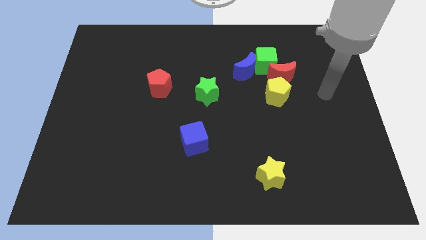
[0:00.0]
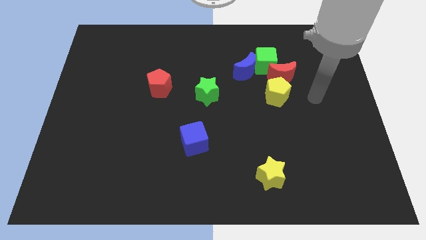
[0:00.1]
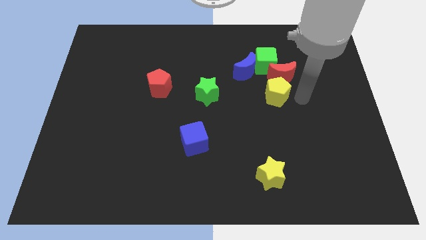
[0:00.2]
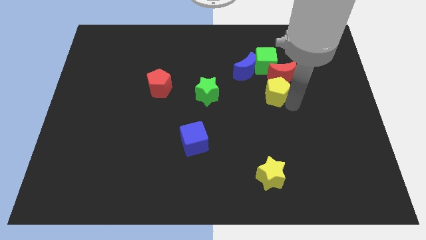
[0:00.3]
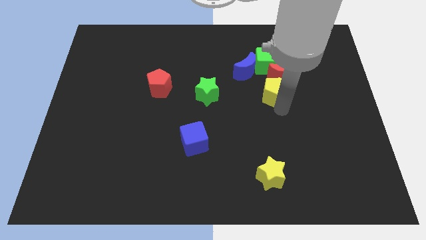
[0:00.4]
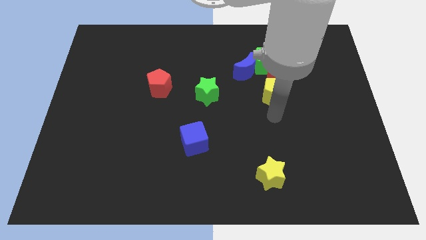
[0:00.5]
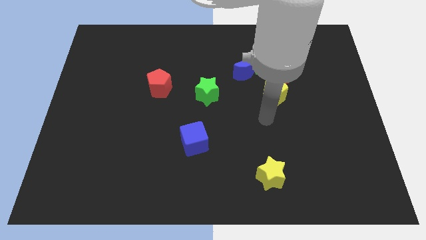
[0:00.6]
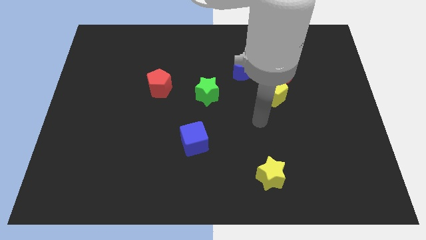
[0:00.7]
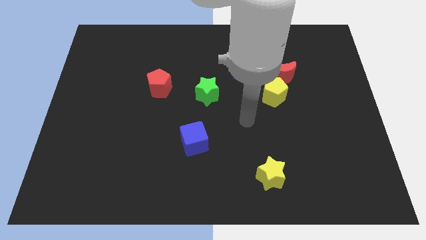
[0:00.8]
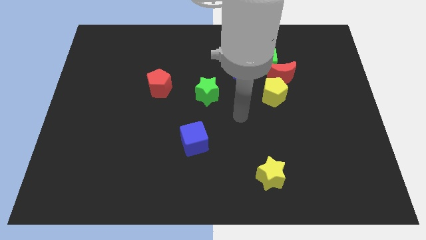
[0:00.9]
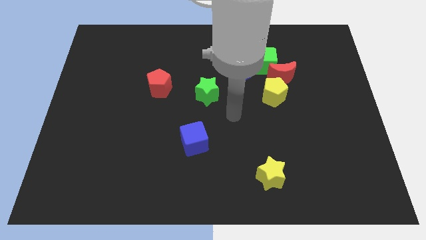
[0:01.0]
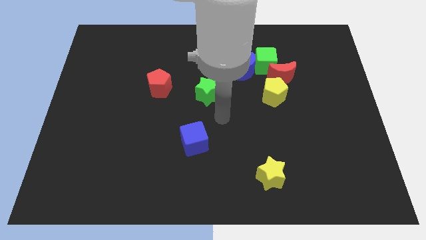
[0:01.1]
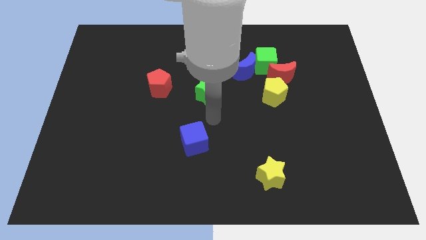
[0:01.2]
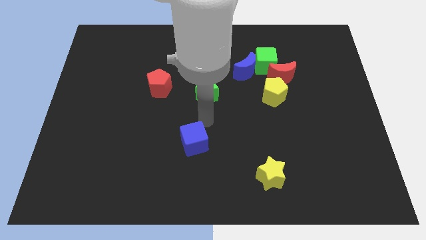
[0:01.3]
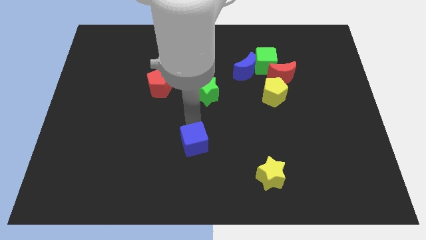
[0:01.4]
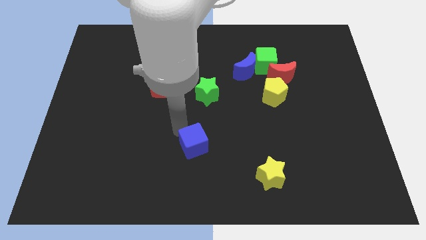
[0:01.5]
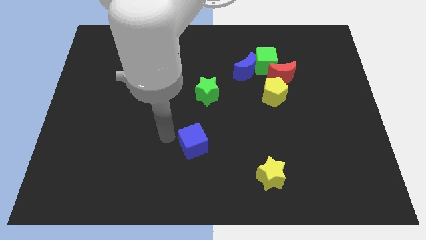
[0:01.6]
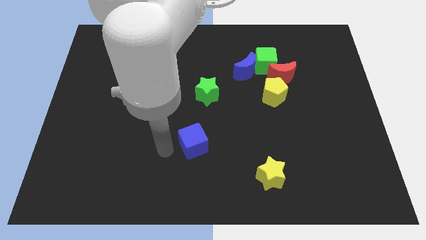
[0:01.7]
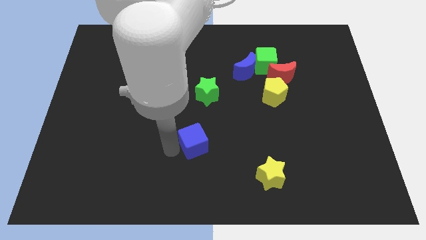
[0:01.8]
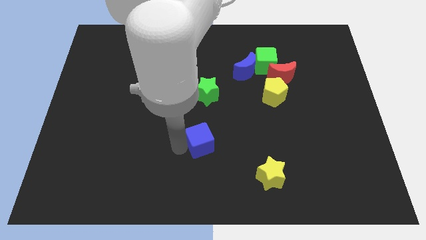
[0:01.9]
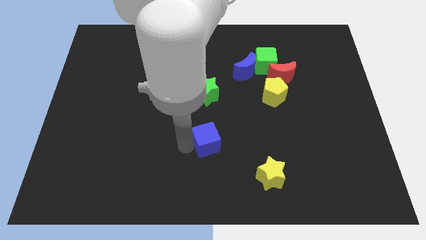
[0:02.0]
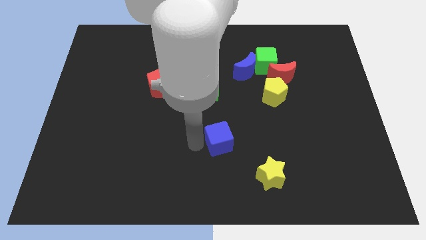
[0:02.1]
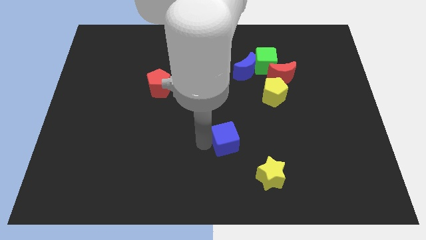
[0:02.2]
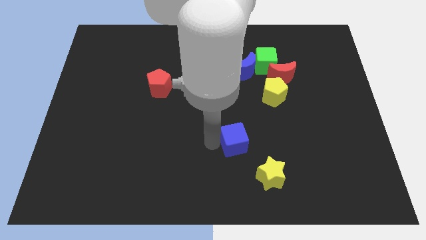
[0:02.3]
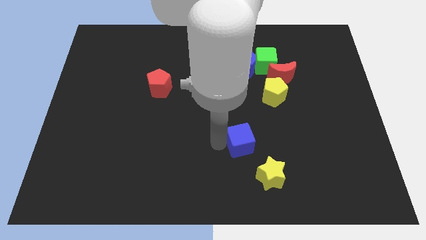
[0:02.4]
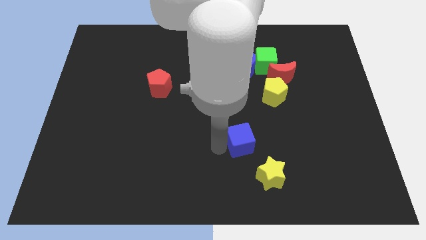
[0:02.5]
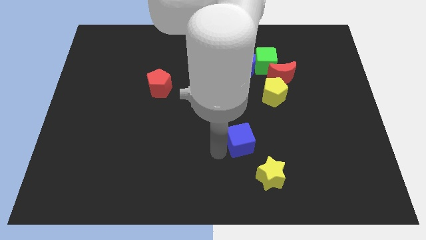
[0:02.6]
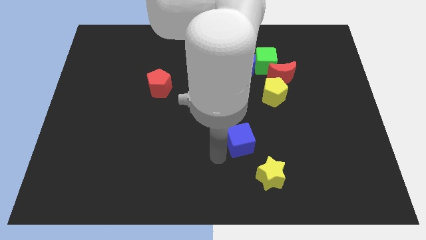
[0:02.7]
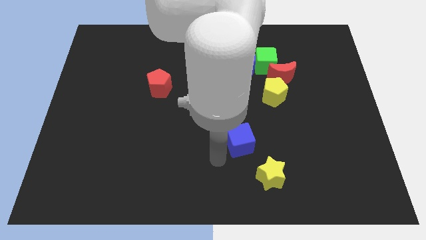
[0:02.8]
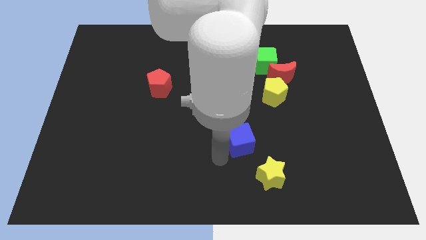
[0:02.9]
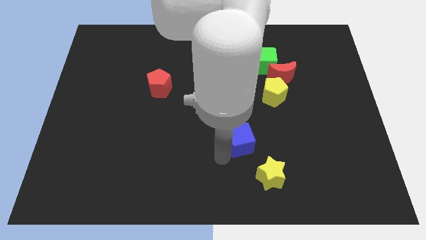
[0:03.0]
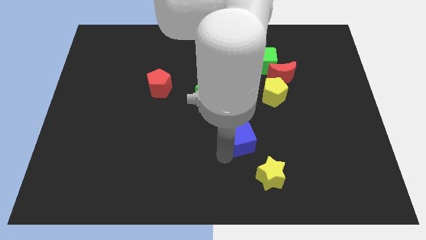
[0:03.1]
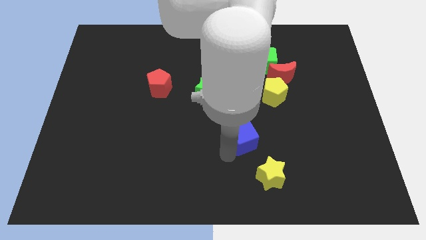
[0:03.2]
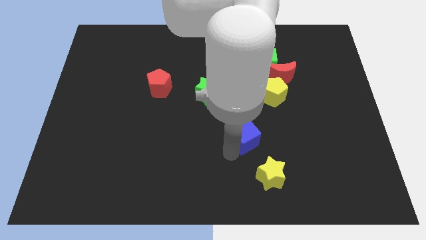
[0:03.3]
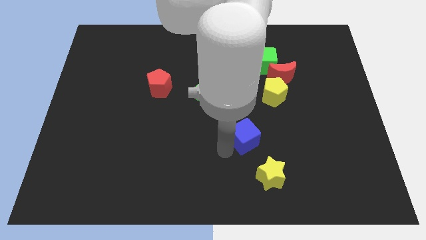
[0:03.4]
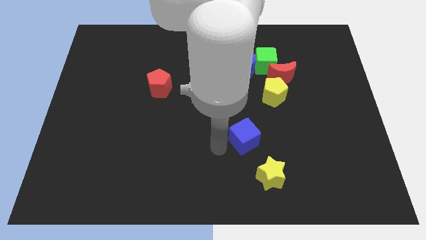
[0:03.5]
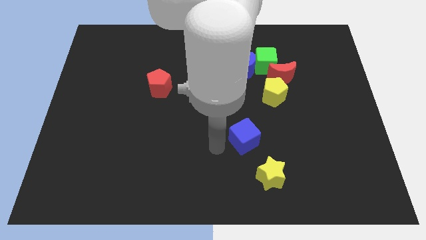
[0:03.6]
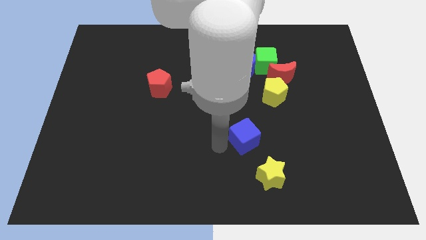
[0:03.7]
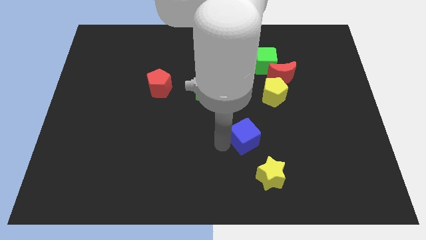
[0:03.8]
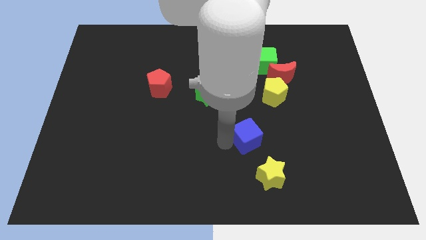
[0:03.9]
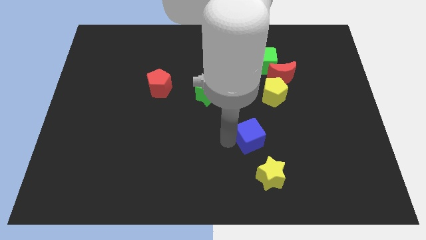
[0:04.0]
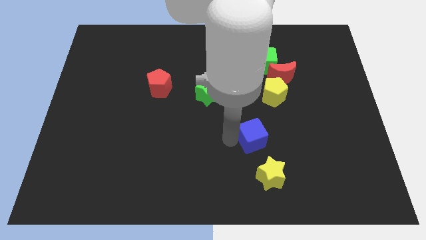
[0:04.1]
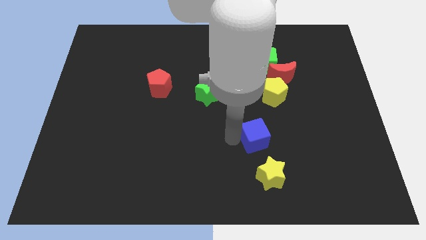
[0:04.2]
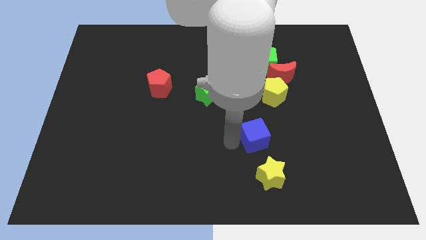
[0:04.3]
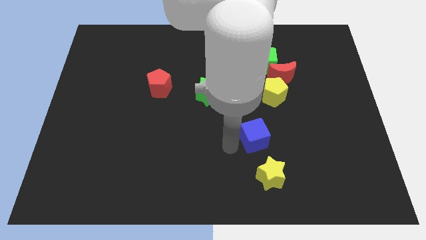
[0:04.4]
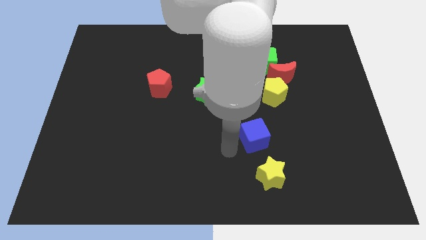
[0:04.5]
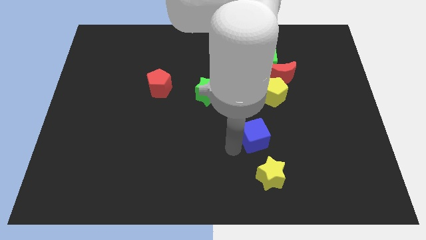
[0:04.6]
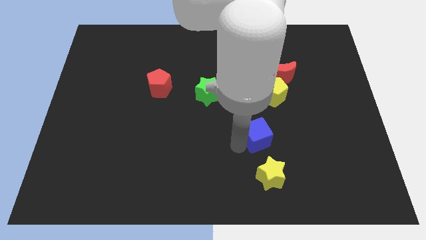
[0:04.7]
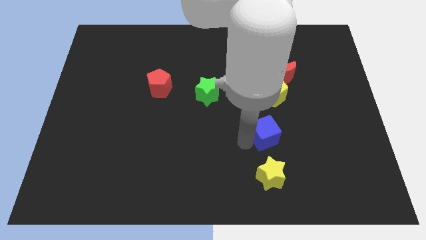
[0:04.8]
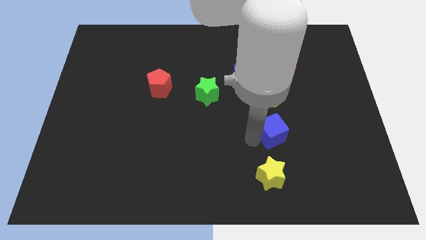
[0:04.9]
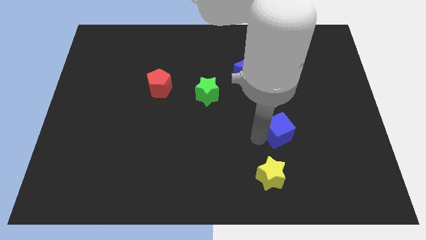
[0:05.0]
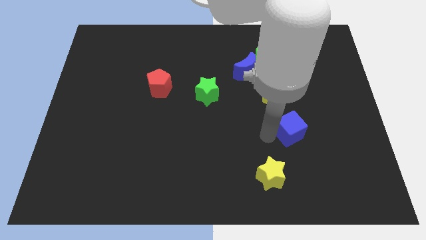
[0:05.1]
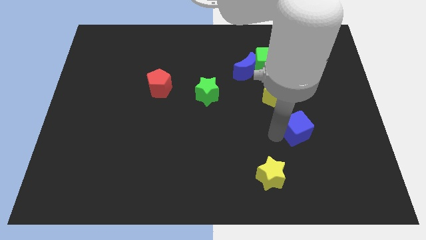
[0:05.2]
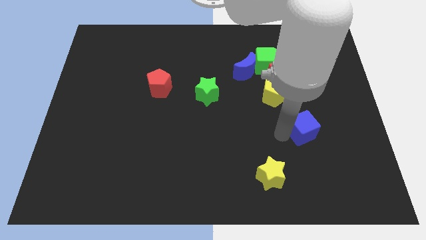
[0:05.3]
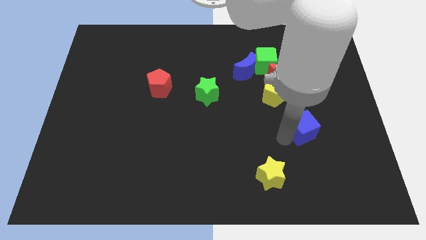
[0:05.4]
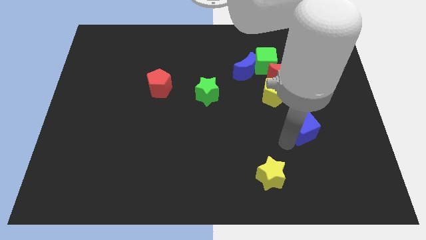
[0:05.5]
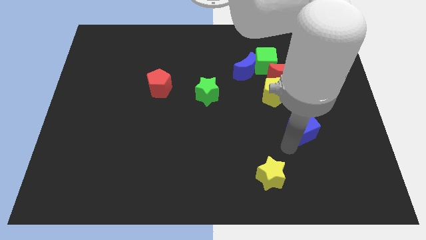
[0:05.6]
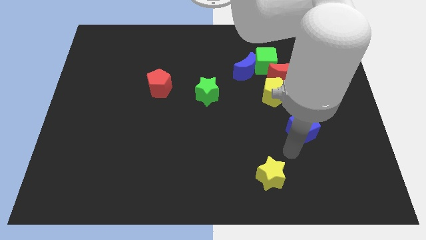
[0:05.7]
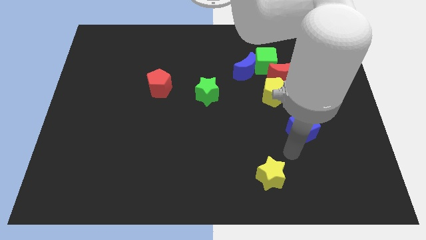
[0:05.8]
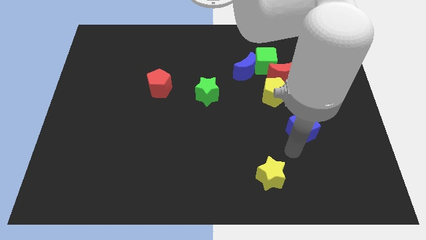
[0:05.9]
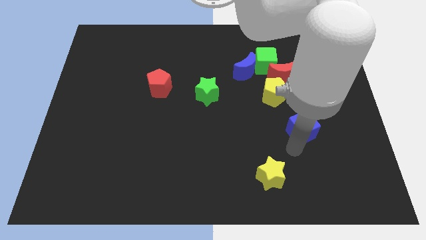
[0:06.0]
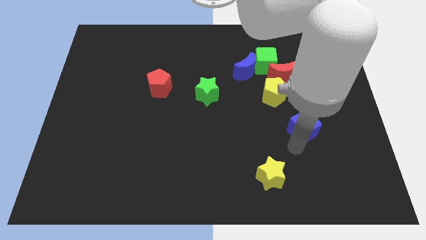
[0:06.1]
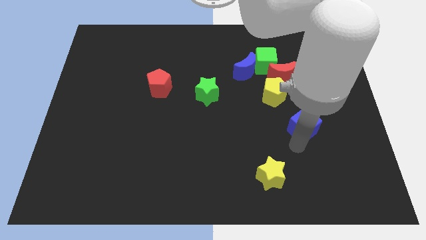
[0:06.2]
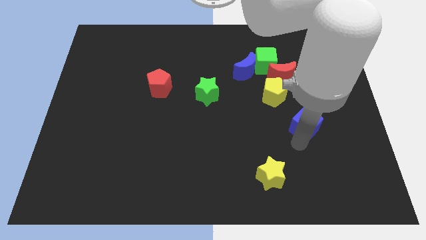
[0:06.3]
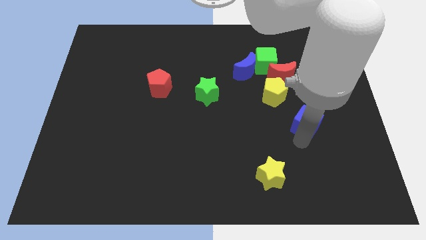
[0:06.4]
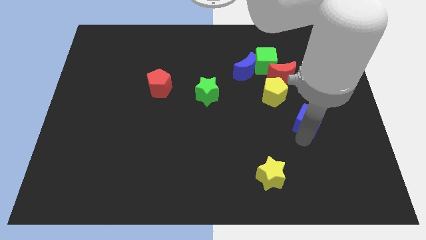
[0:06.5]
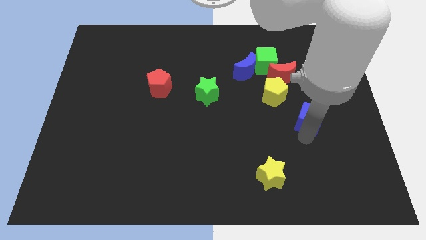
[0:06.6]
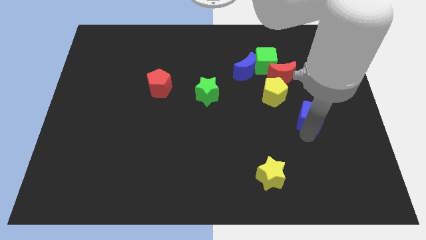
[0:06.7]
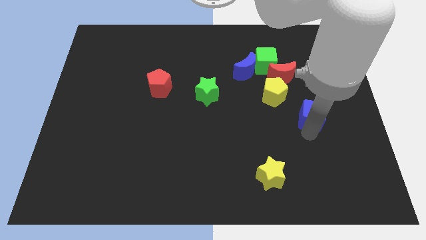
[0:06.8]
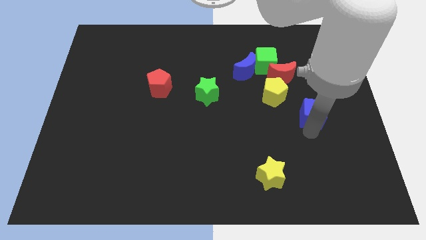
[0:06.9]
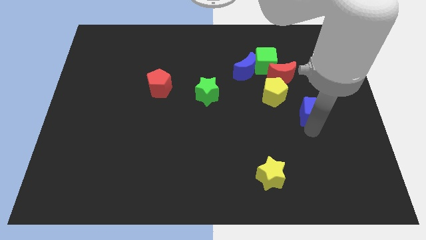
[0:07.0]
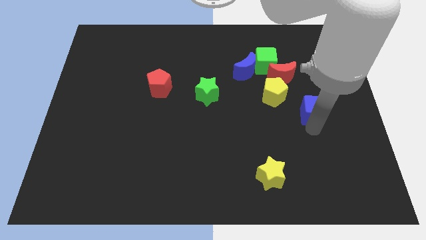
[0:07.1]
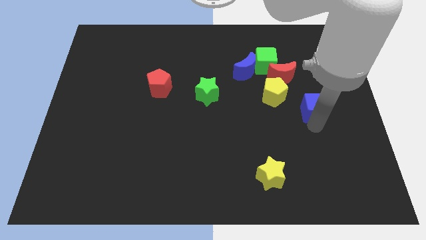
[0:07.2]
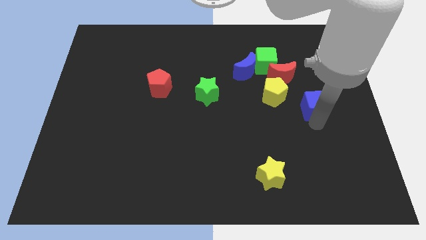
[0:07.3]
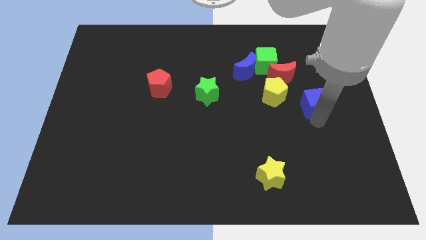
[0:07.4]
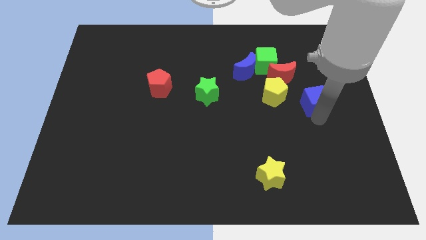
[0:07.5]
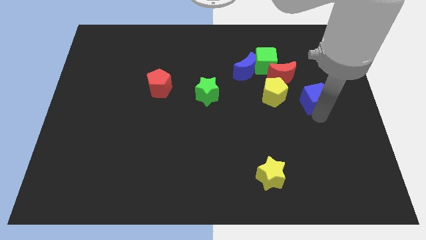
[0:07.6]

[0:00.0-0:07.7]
push the blue cube upwards and to the right diagonally

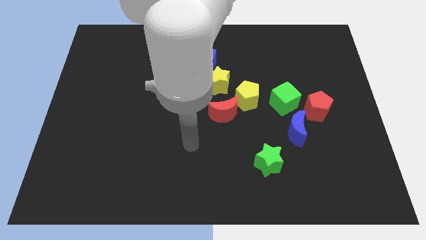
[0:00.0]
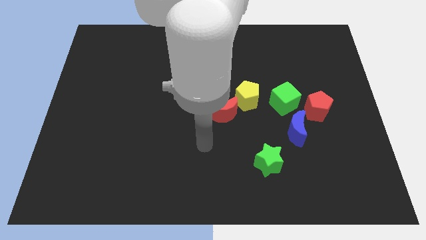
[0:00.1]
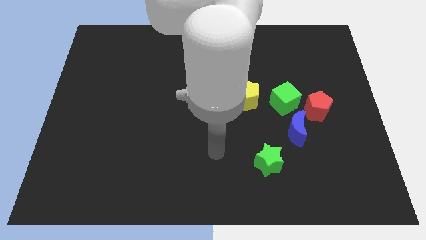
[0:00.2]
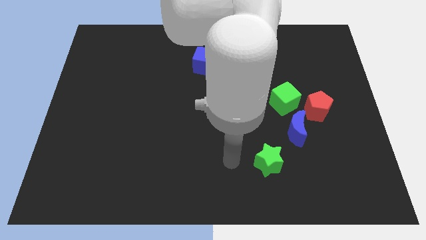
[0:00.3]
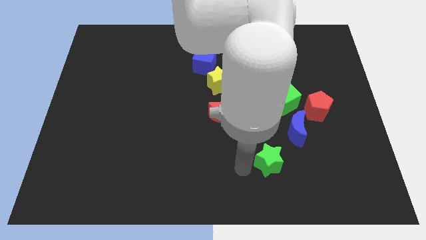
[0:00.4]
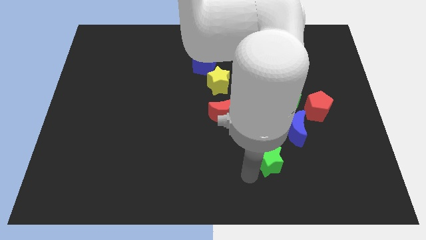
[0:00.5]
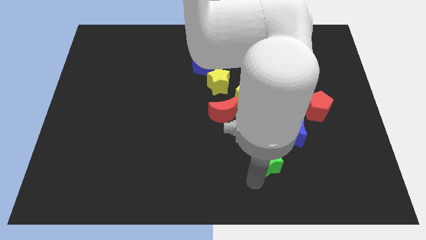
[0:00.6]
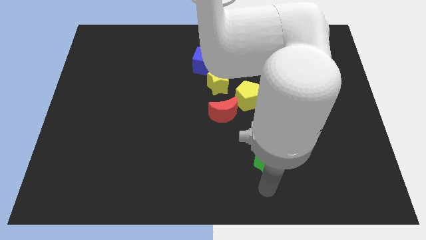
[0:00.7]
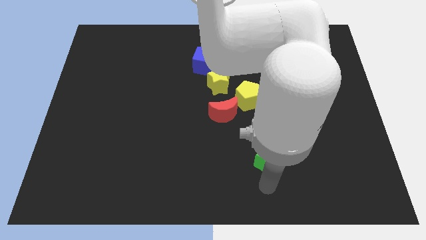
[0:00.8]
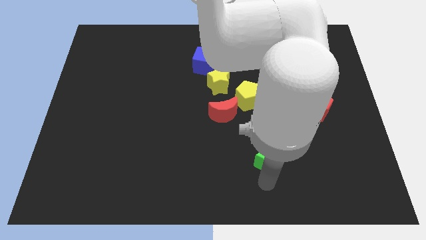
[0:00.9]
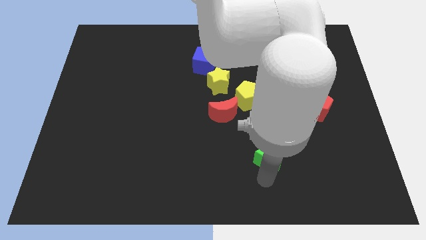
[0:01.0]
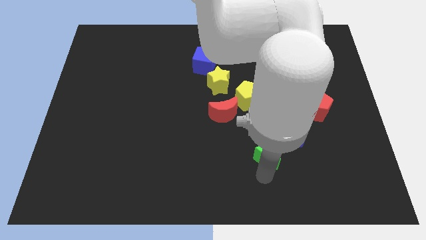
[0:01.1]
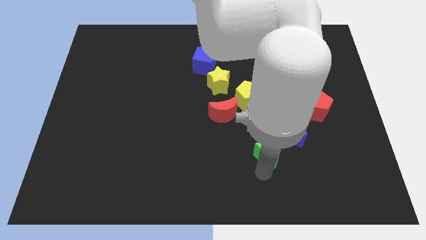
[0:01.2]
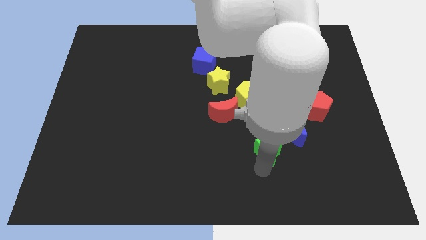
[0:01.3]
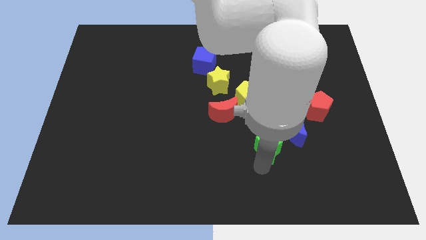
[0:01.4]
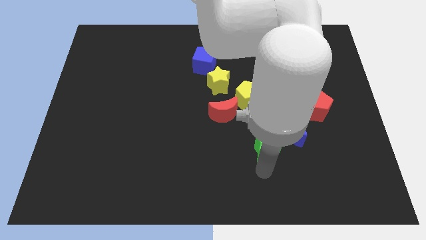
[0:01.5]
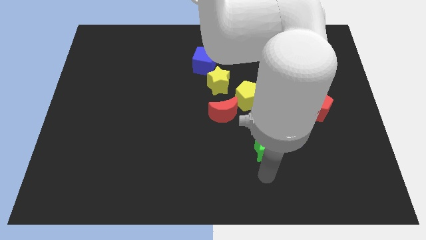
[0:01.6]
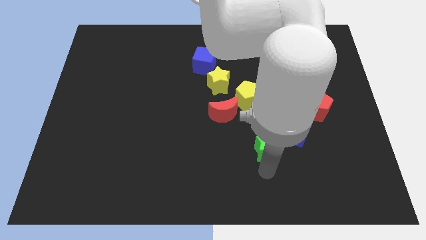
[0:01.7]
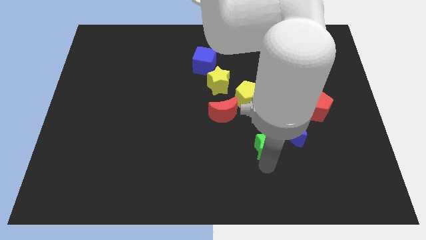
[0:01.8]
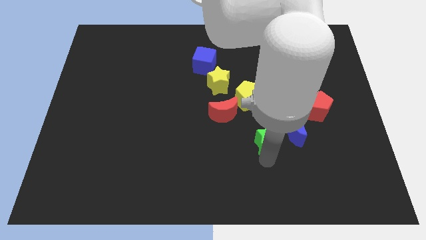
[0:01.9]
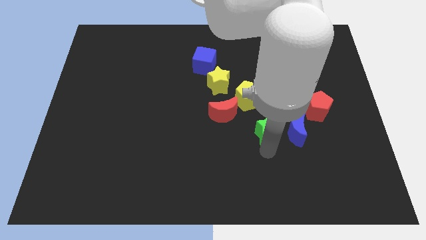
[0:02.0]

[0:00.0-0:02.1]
slightly move the green star upwards
